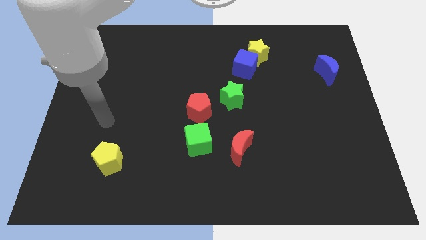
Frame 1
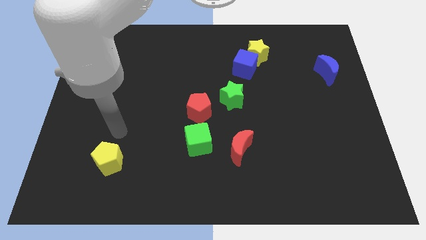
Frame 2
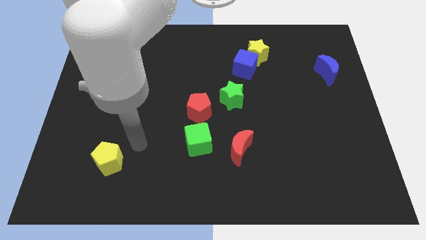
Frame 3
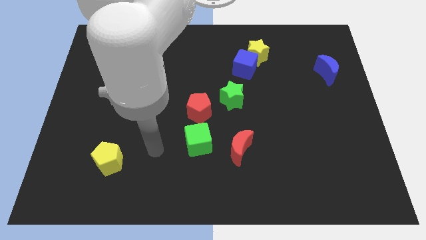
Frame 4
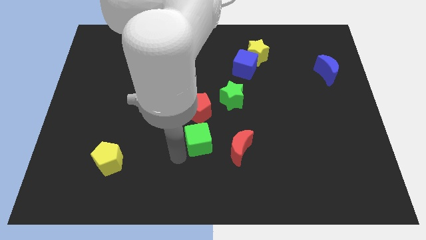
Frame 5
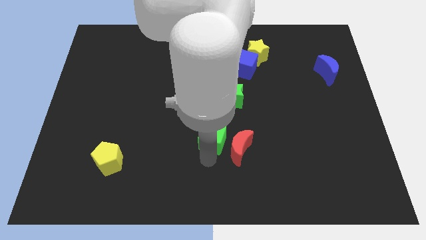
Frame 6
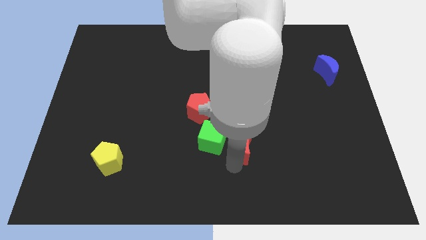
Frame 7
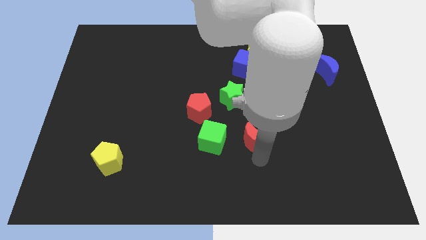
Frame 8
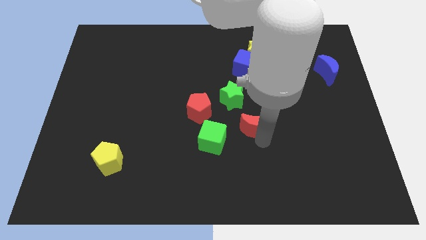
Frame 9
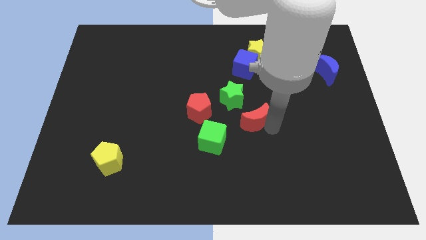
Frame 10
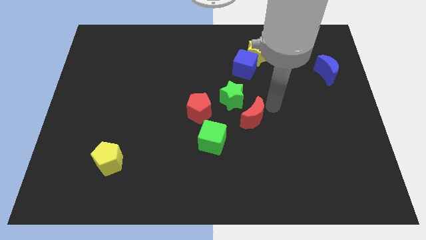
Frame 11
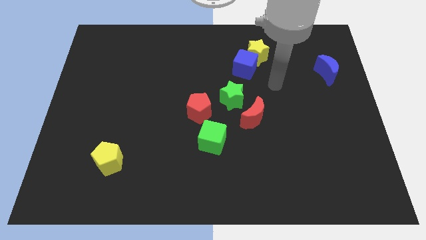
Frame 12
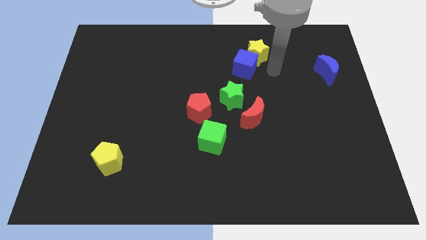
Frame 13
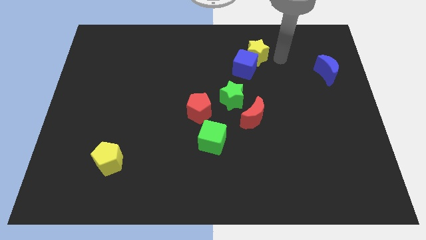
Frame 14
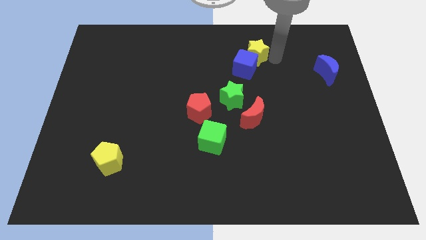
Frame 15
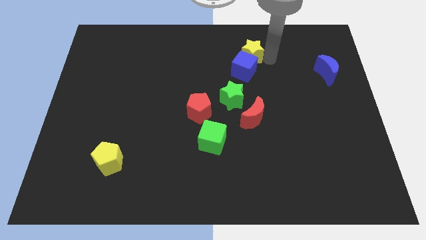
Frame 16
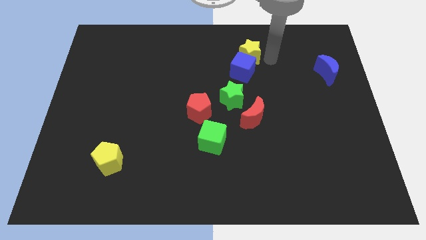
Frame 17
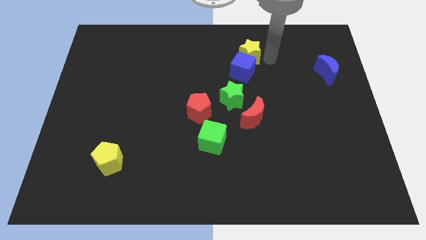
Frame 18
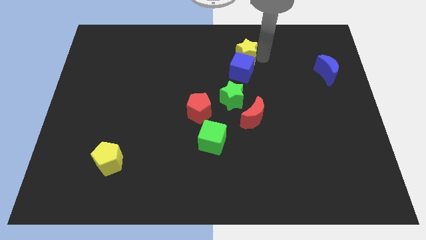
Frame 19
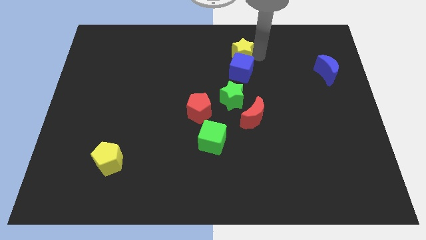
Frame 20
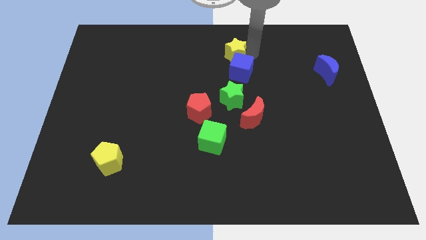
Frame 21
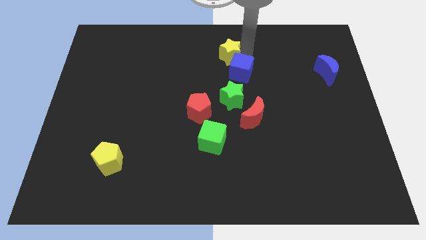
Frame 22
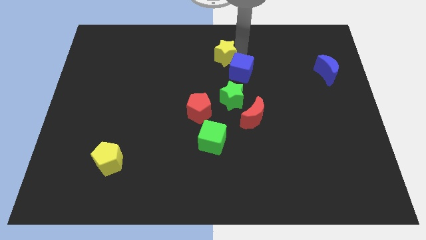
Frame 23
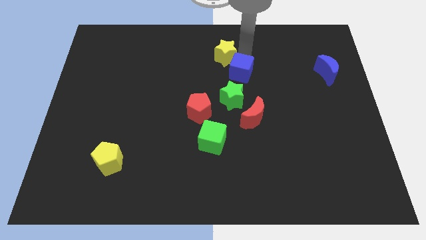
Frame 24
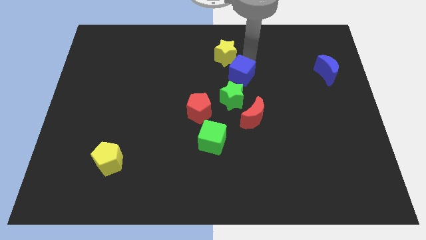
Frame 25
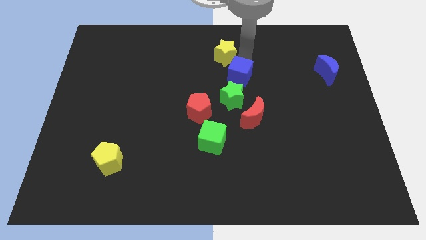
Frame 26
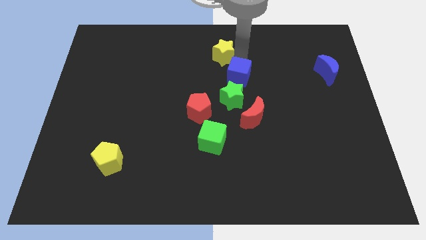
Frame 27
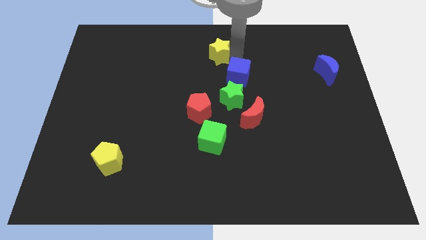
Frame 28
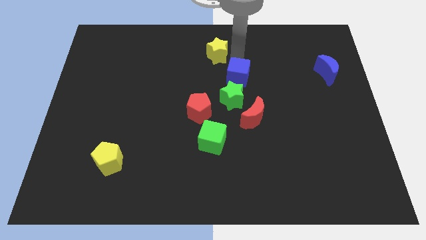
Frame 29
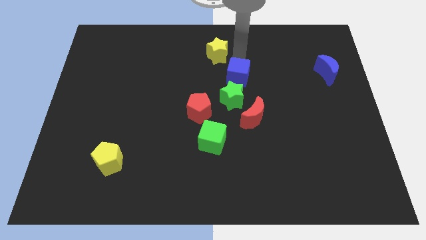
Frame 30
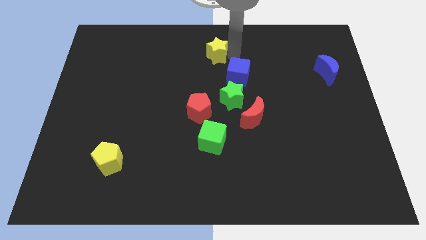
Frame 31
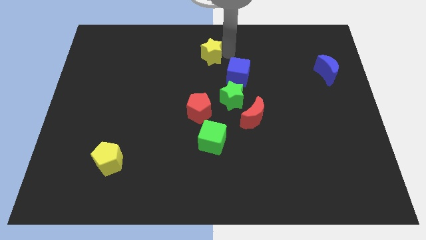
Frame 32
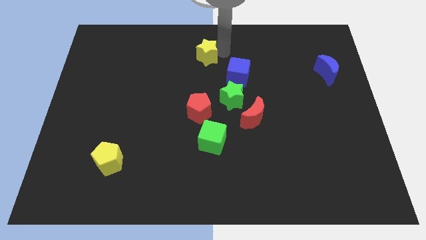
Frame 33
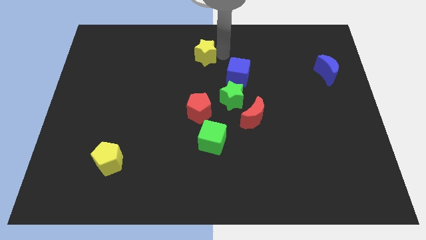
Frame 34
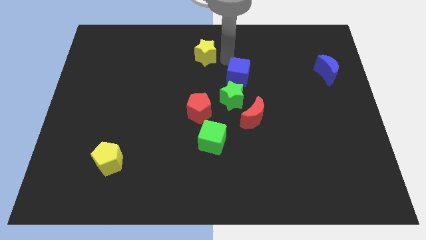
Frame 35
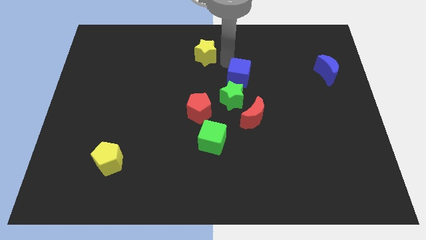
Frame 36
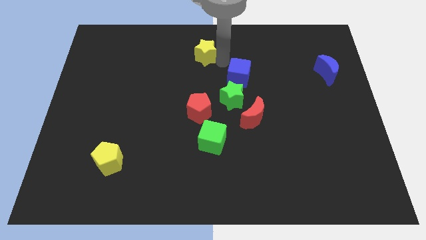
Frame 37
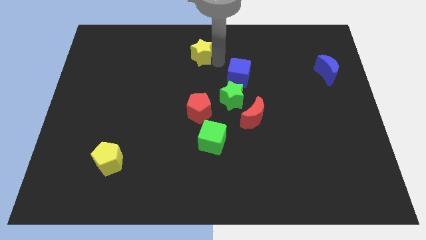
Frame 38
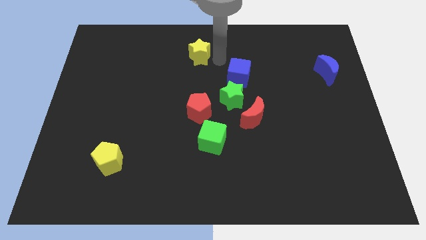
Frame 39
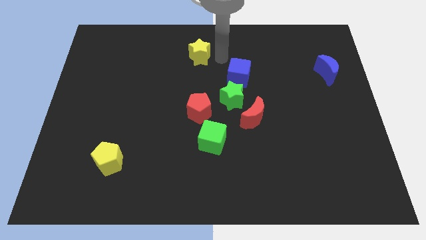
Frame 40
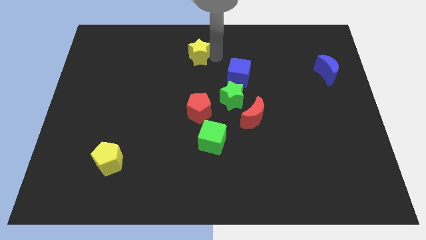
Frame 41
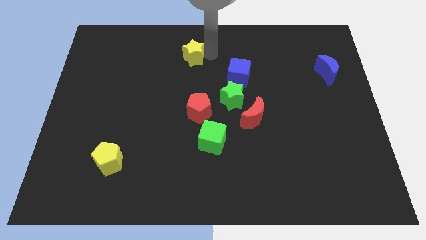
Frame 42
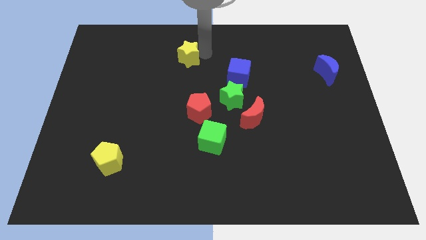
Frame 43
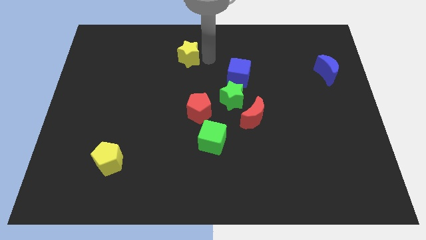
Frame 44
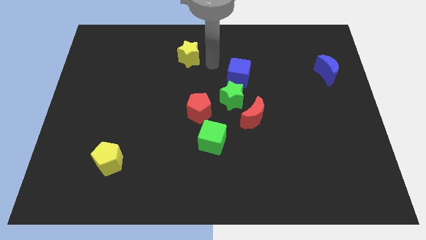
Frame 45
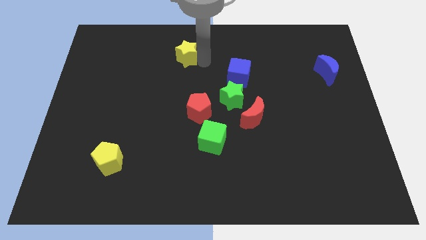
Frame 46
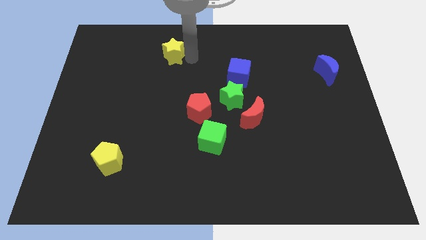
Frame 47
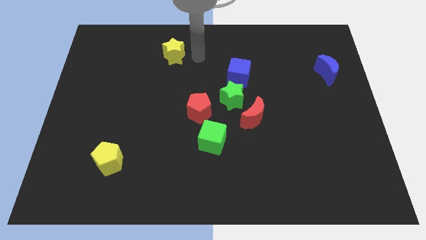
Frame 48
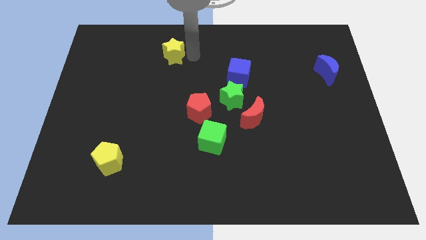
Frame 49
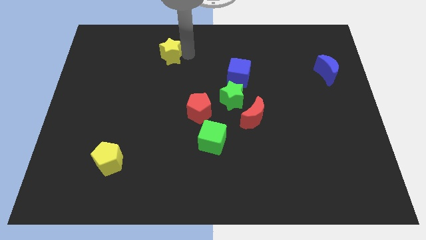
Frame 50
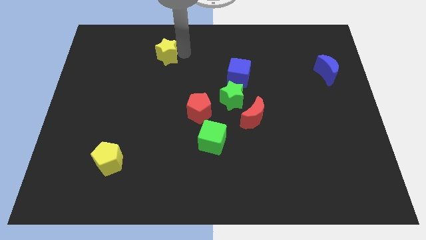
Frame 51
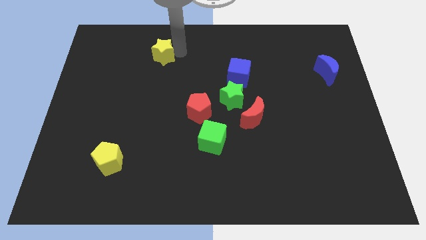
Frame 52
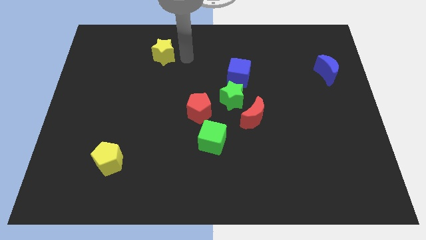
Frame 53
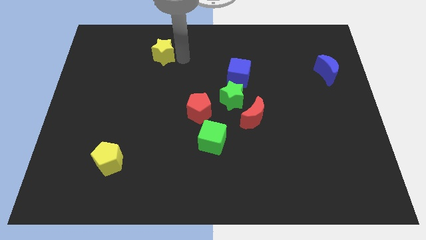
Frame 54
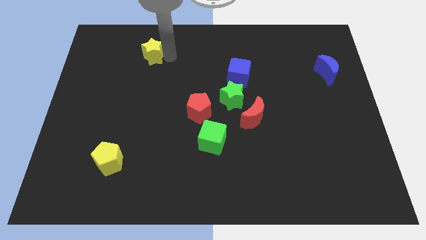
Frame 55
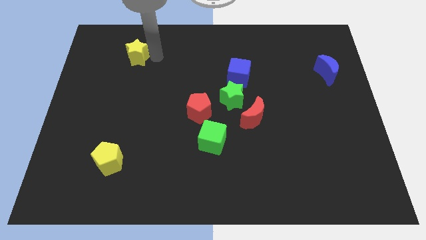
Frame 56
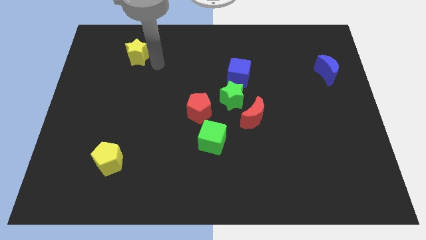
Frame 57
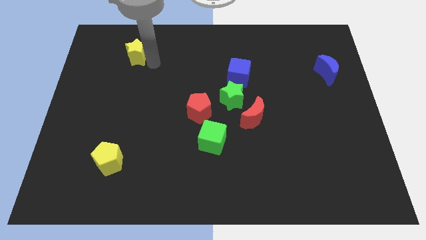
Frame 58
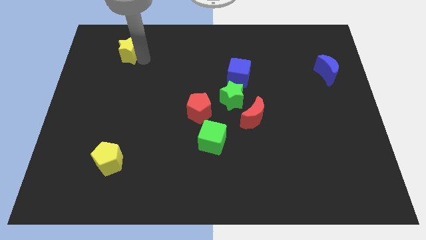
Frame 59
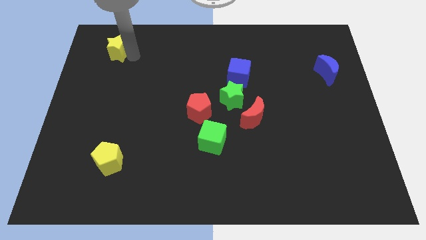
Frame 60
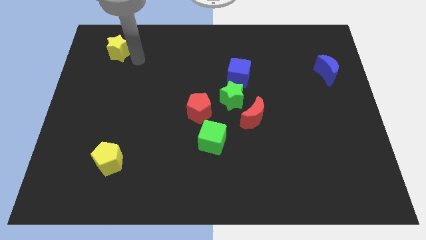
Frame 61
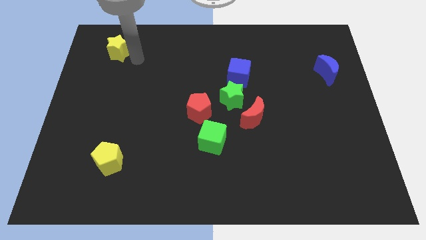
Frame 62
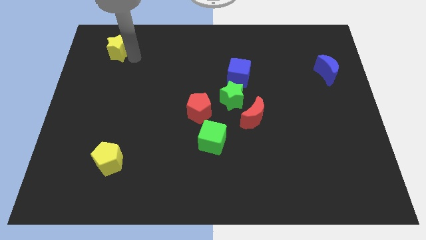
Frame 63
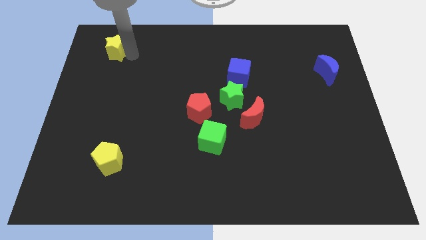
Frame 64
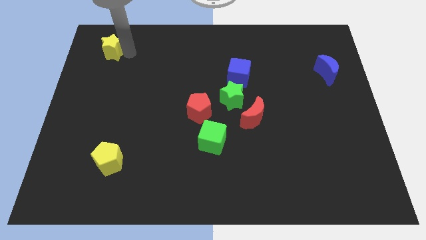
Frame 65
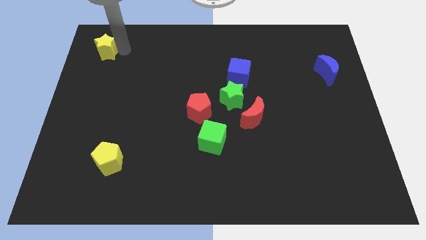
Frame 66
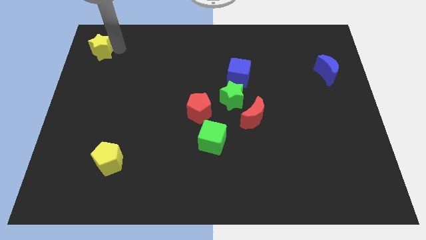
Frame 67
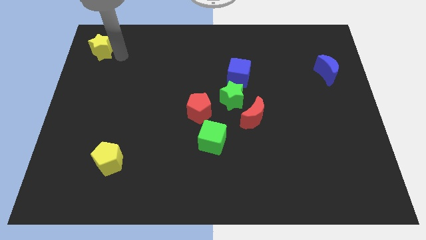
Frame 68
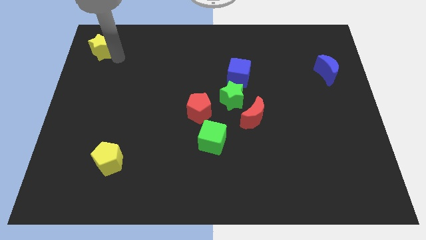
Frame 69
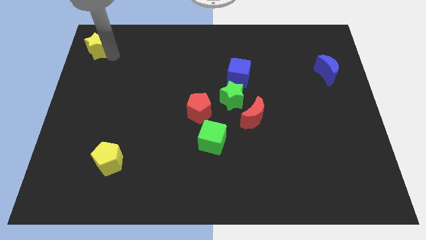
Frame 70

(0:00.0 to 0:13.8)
push the yellow star to the upper left corner
